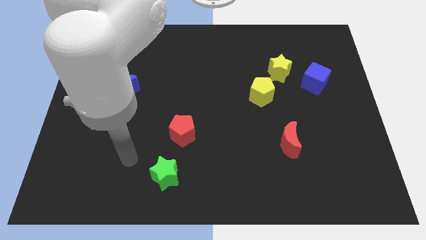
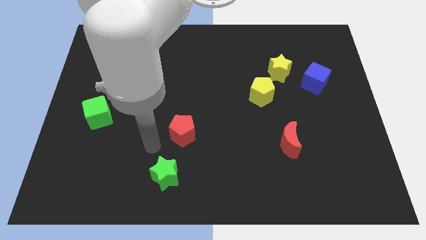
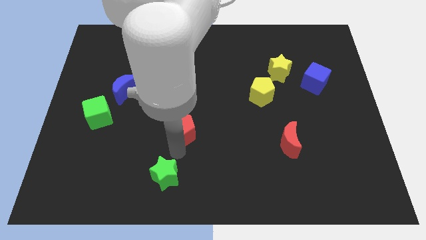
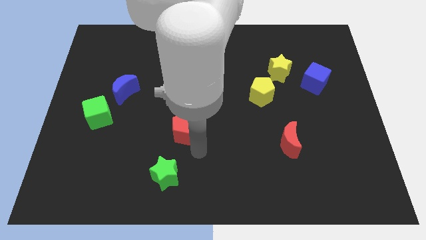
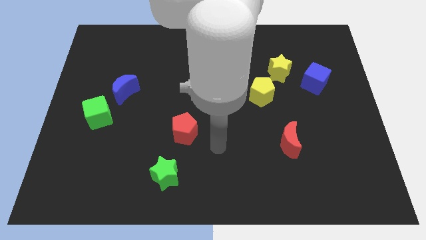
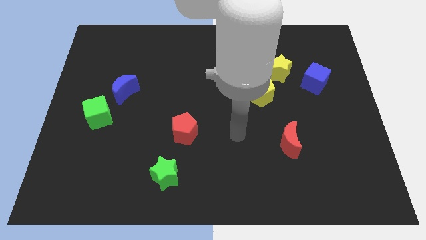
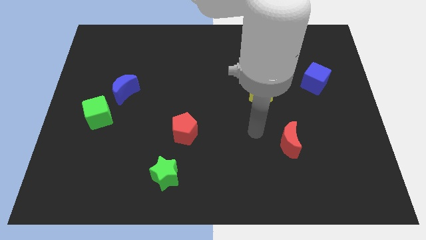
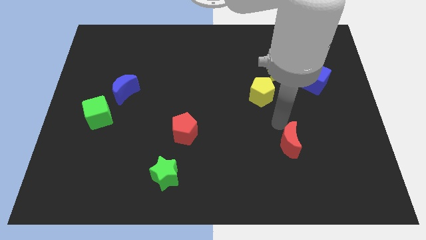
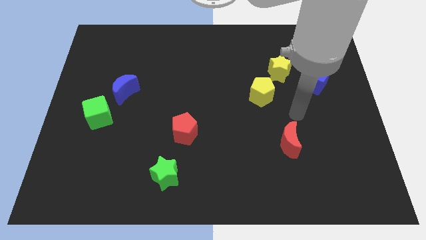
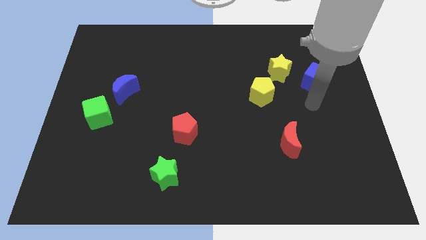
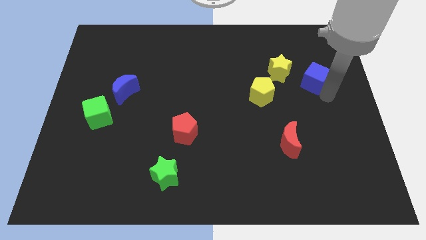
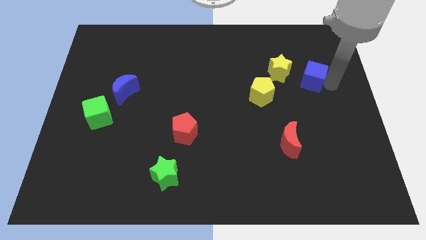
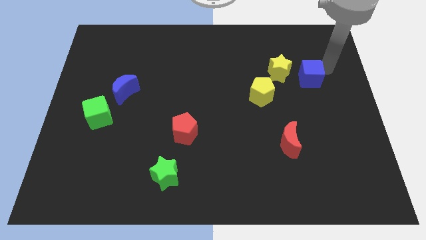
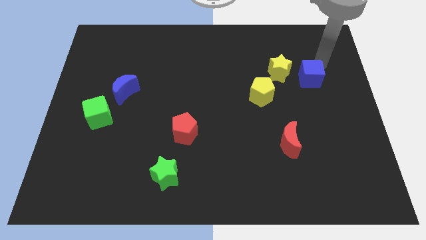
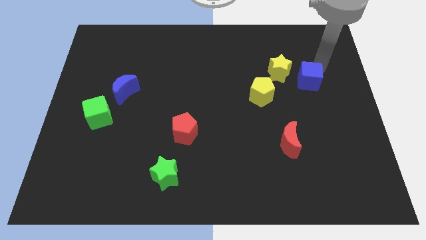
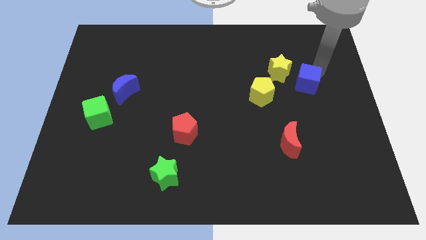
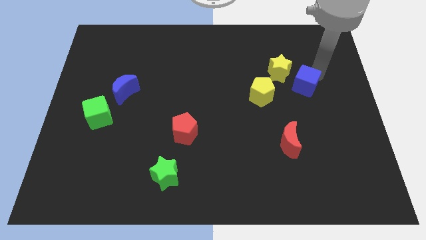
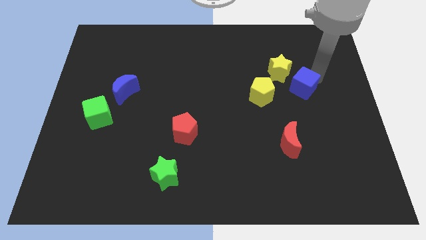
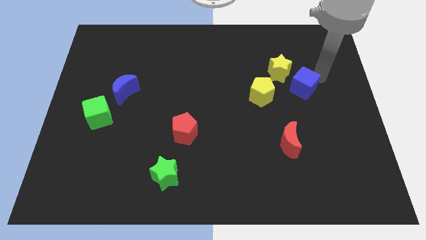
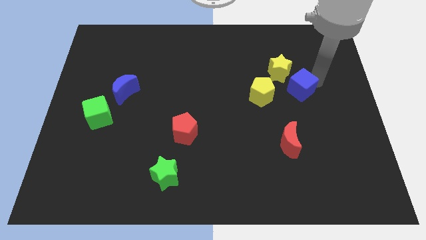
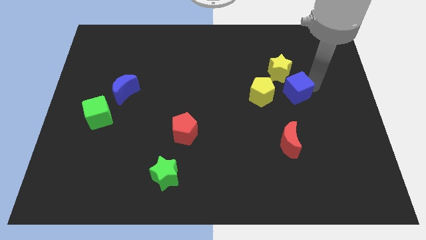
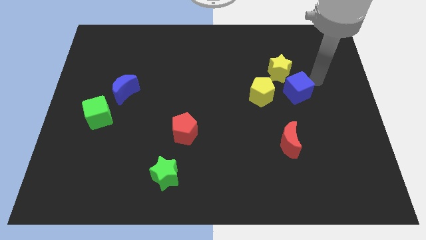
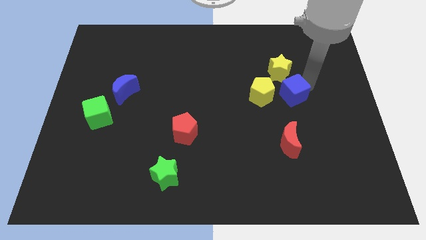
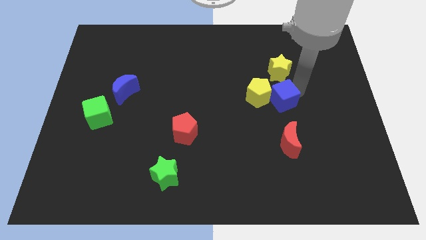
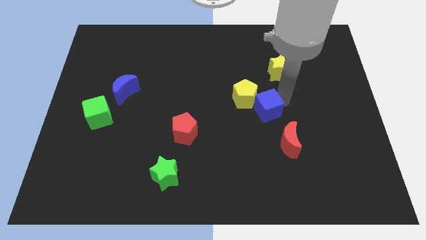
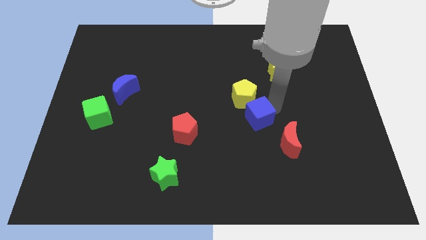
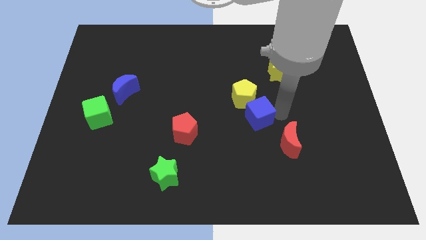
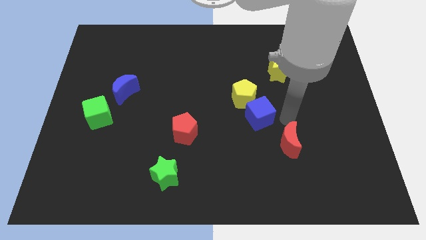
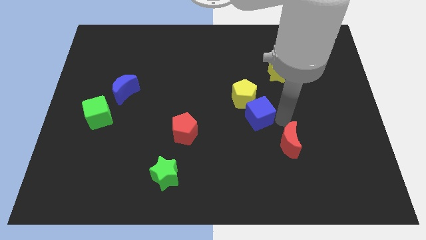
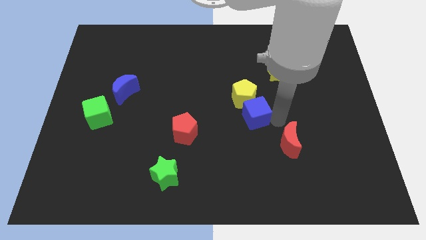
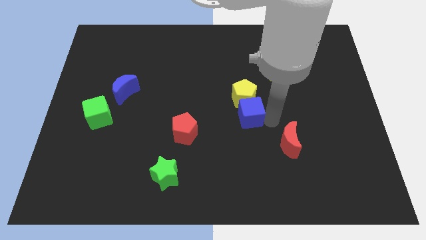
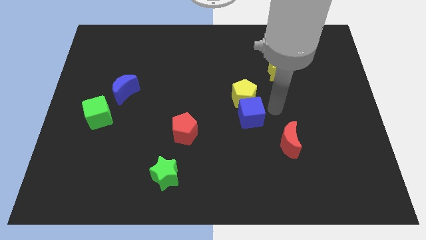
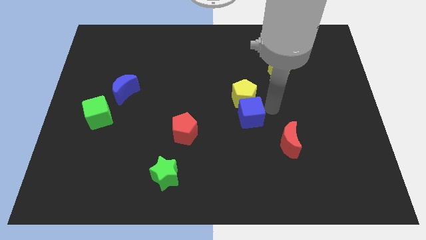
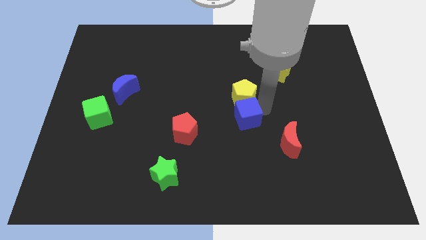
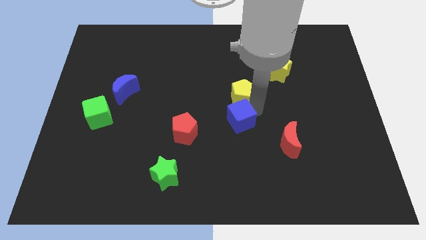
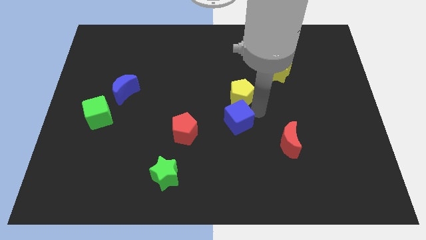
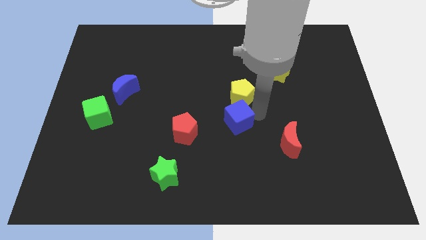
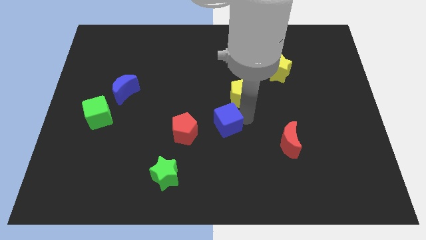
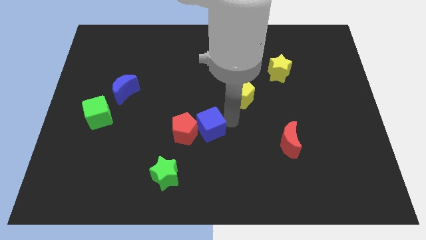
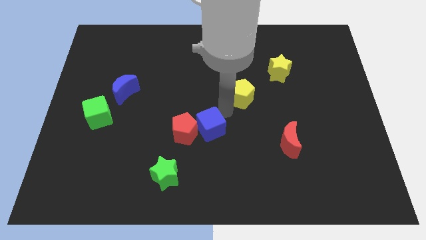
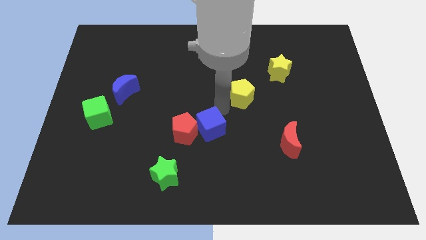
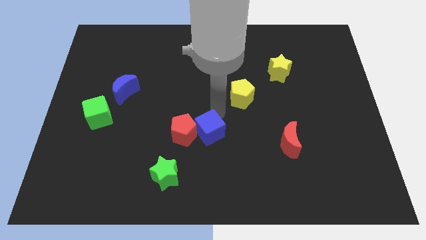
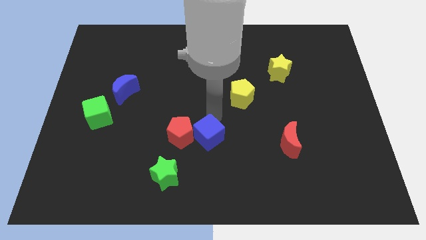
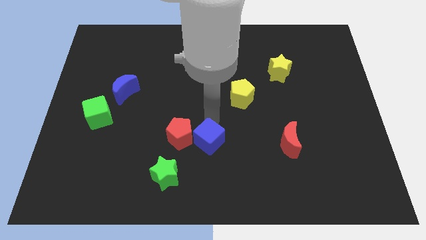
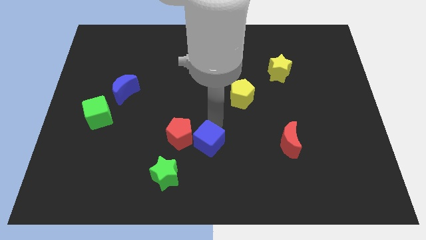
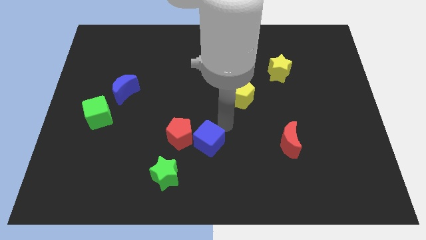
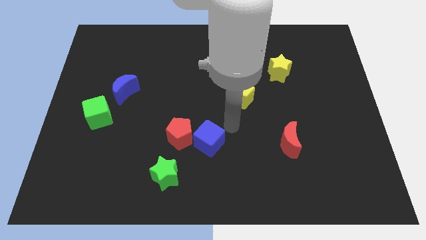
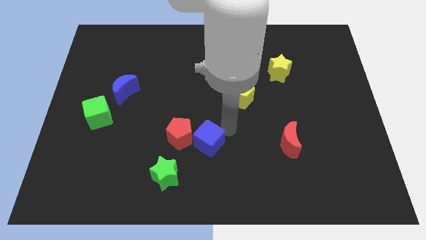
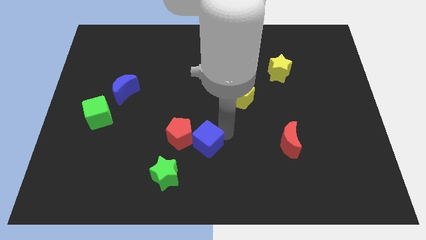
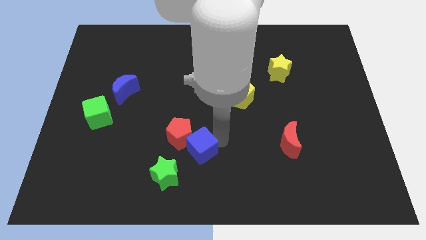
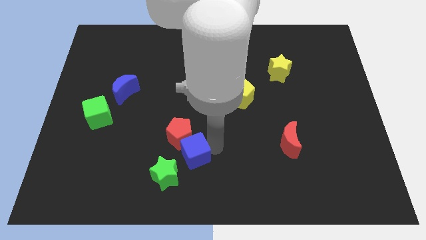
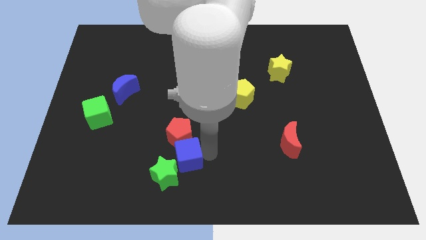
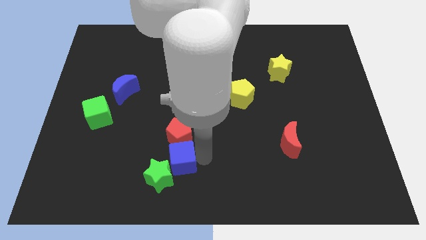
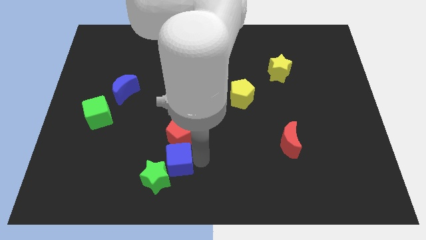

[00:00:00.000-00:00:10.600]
slide the blue cube diagonally down and to the left of the red pentagon

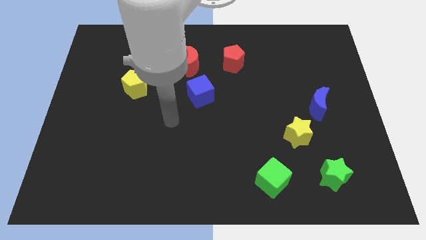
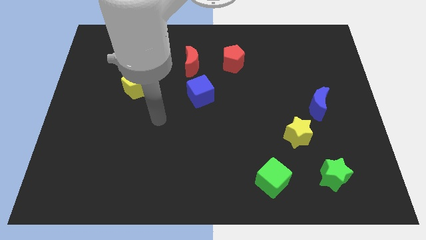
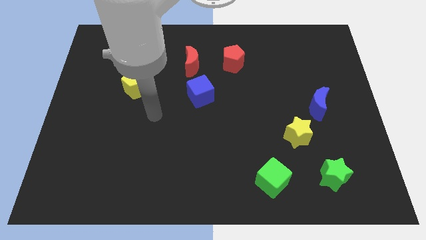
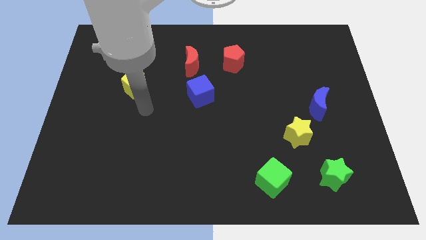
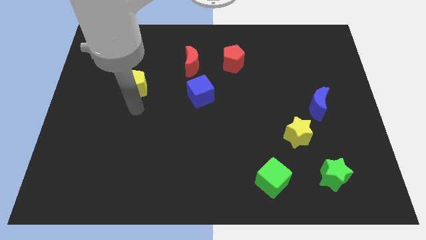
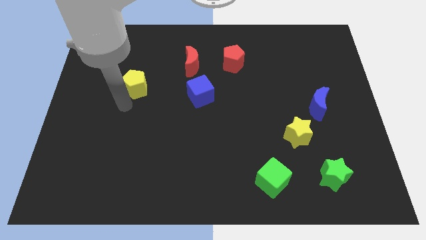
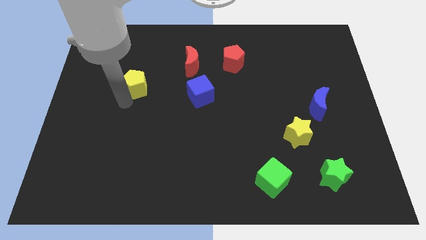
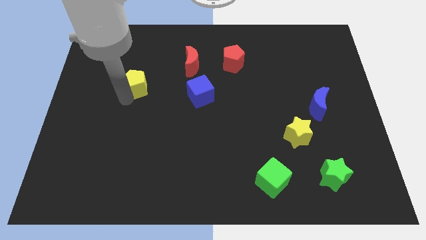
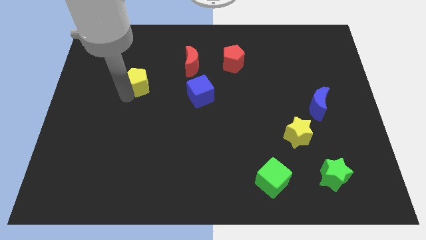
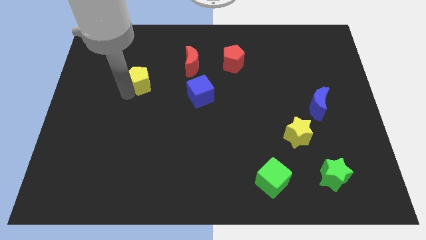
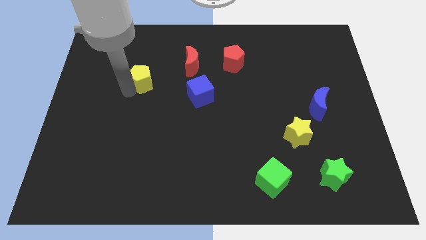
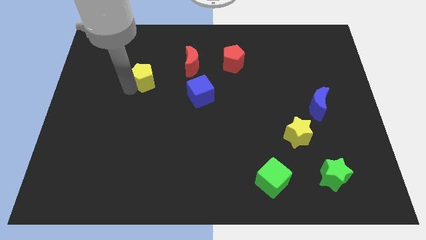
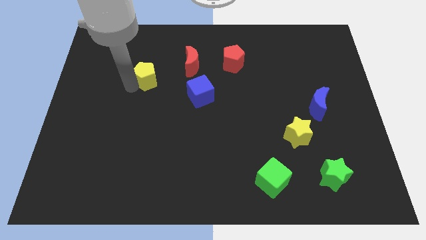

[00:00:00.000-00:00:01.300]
slide the yellow pentagon just left of the red moon
